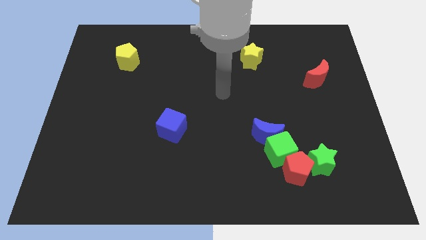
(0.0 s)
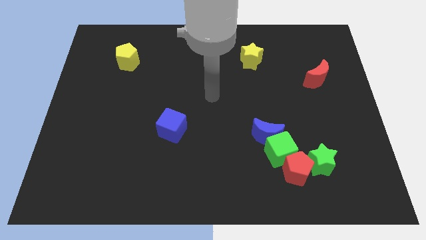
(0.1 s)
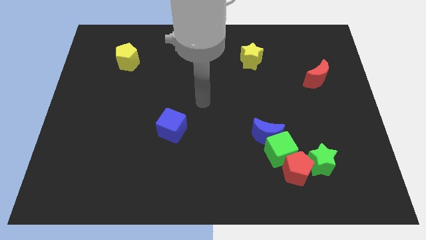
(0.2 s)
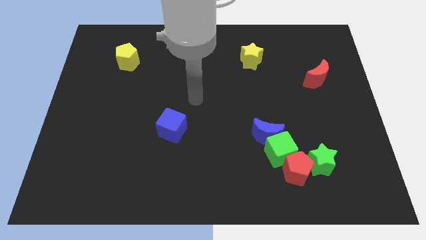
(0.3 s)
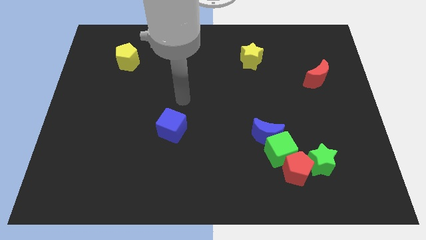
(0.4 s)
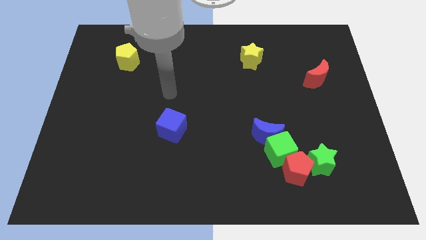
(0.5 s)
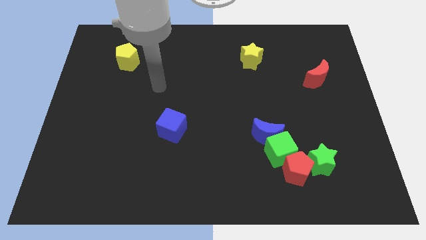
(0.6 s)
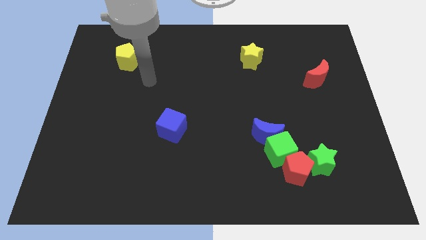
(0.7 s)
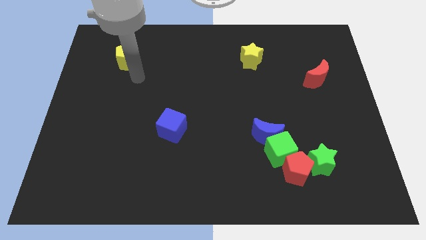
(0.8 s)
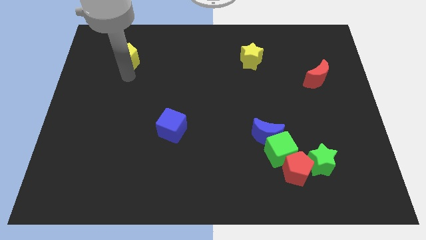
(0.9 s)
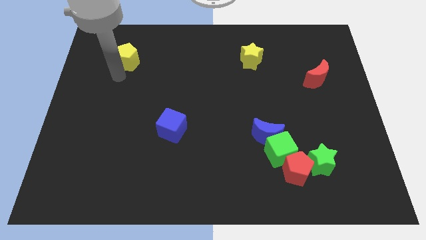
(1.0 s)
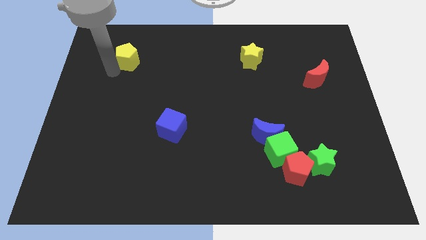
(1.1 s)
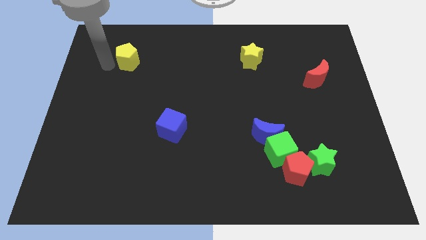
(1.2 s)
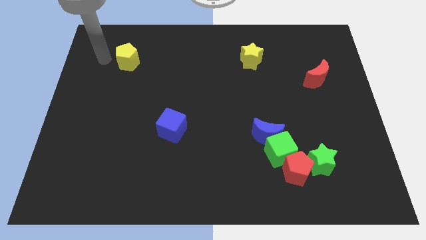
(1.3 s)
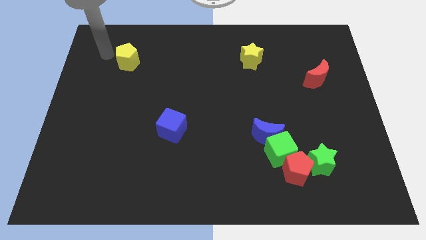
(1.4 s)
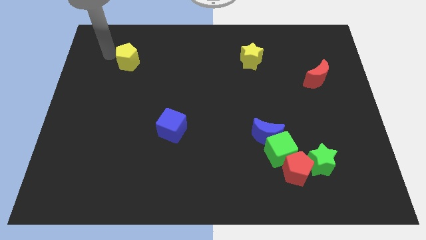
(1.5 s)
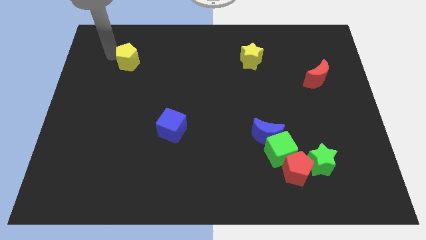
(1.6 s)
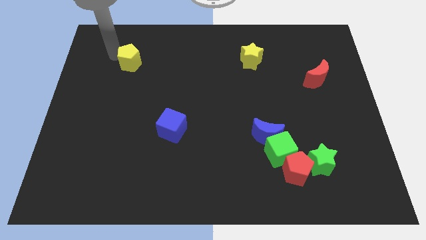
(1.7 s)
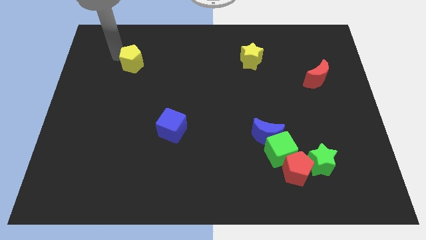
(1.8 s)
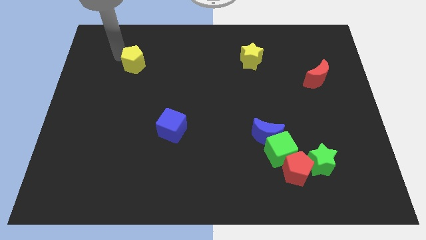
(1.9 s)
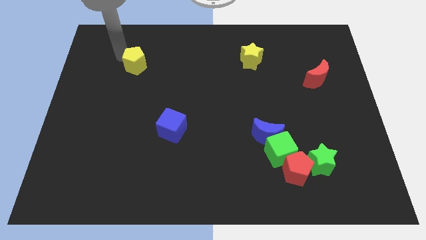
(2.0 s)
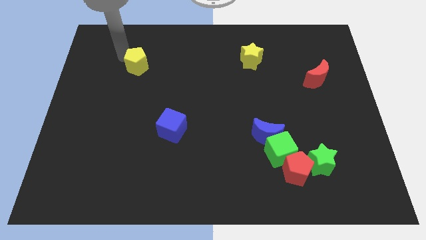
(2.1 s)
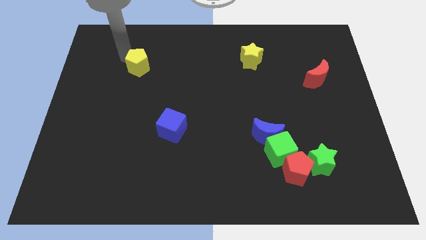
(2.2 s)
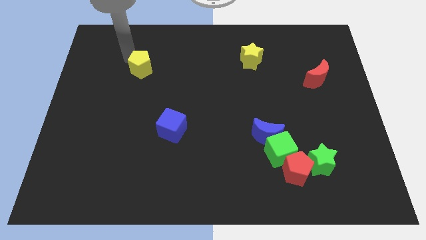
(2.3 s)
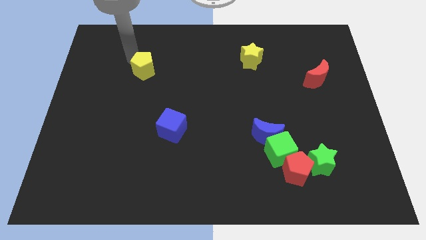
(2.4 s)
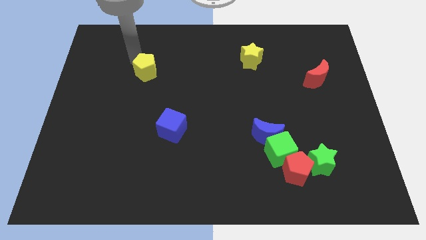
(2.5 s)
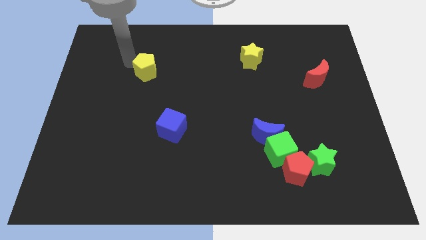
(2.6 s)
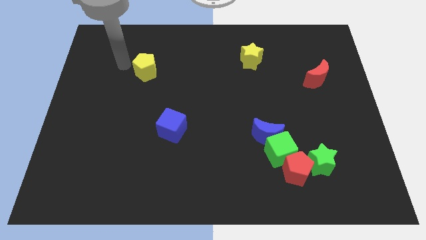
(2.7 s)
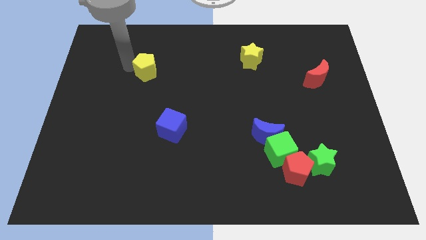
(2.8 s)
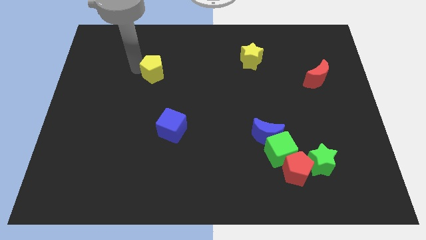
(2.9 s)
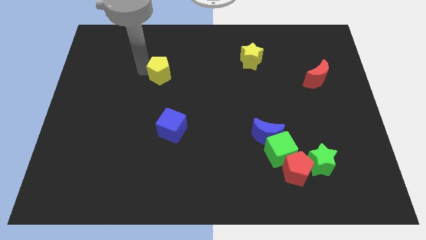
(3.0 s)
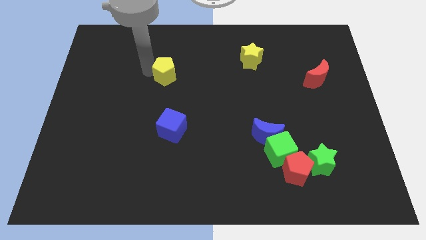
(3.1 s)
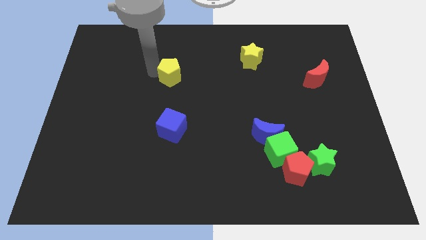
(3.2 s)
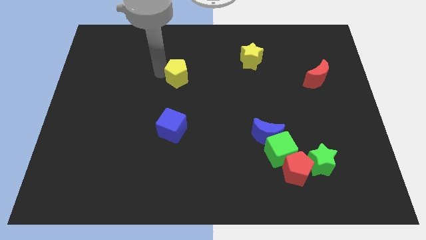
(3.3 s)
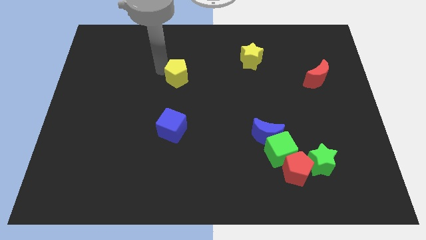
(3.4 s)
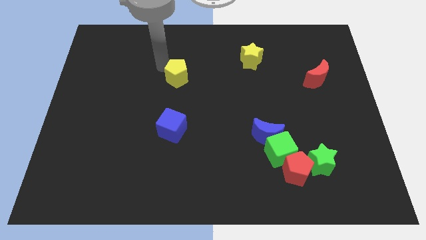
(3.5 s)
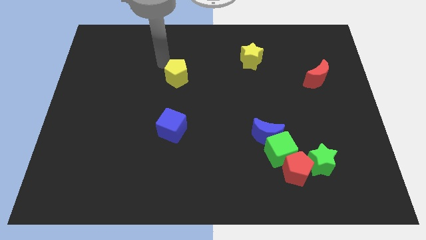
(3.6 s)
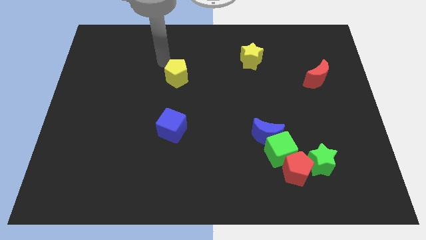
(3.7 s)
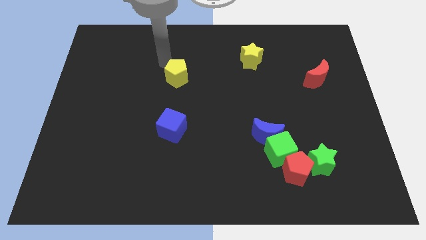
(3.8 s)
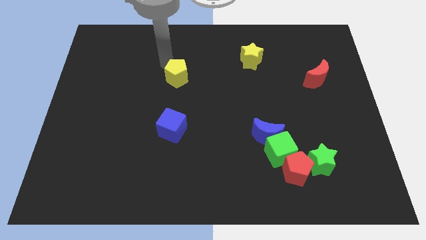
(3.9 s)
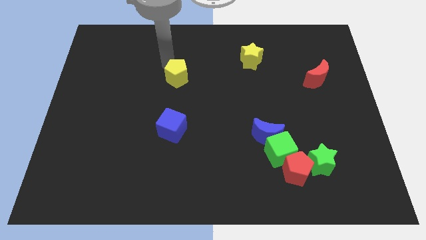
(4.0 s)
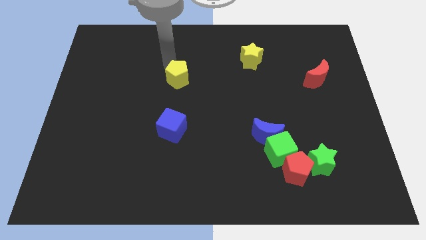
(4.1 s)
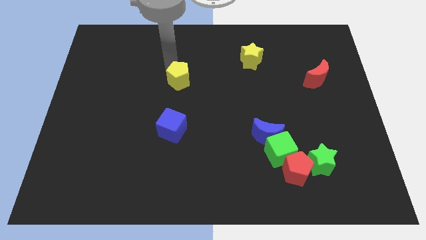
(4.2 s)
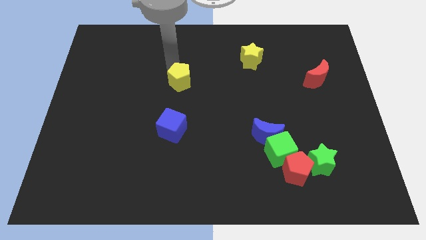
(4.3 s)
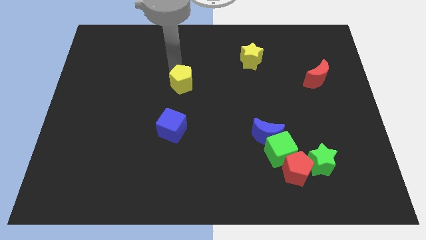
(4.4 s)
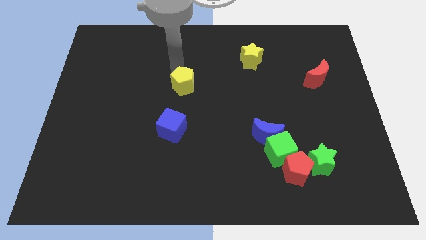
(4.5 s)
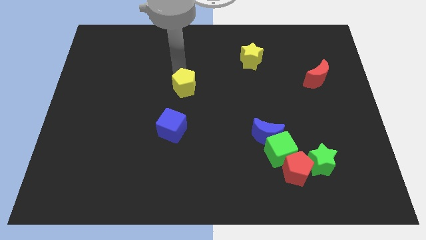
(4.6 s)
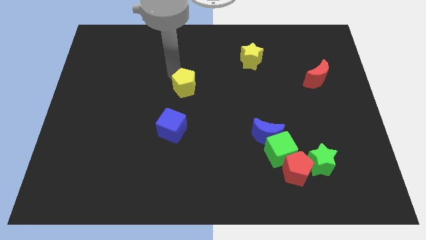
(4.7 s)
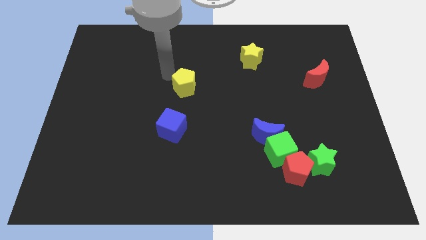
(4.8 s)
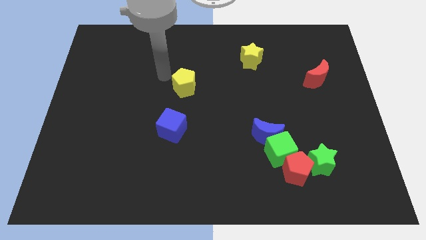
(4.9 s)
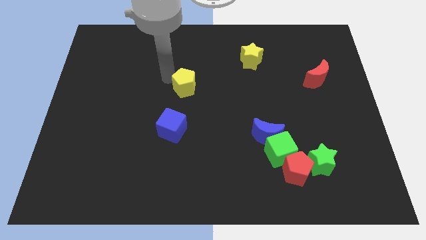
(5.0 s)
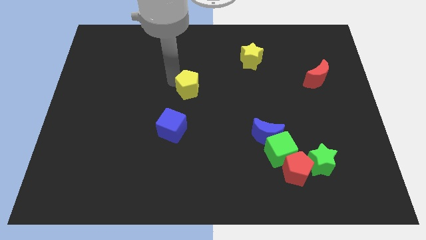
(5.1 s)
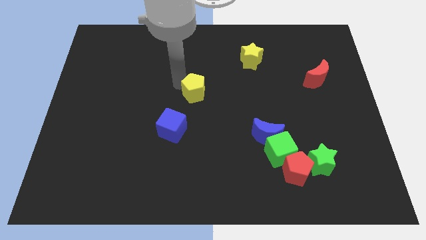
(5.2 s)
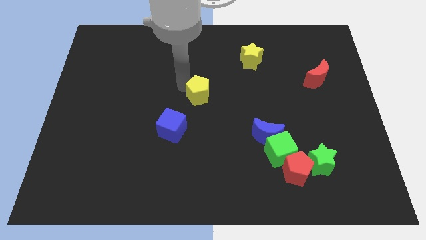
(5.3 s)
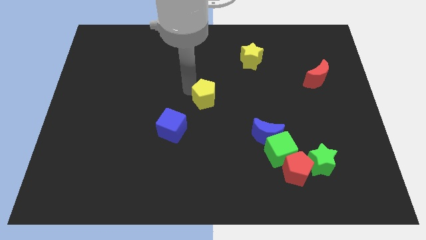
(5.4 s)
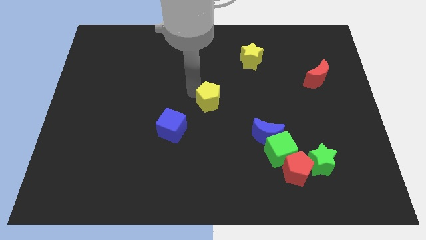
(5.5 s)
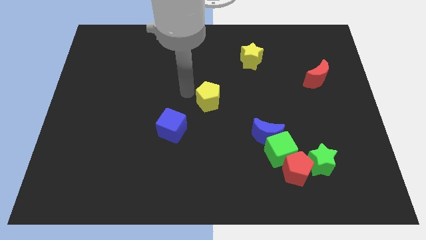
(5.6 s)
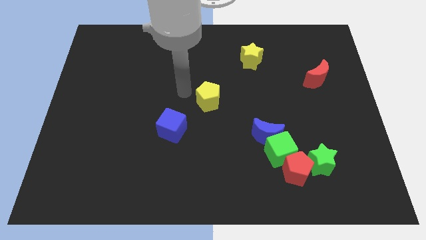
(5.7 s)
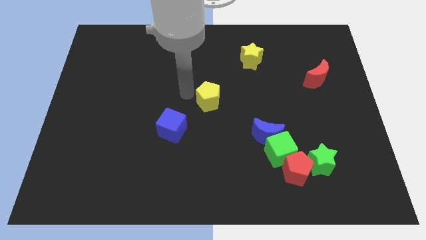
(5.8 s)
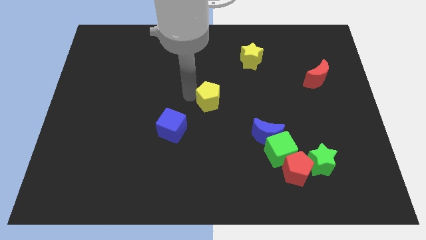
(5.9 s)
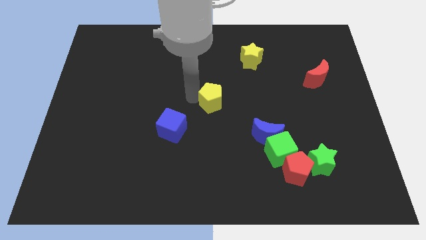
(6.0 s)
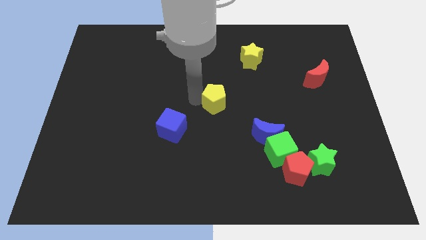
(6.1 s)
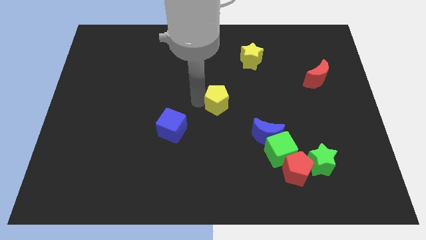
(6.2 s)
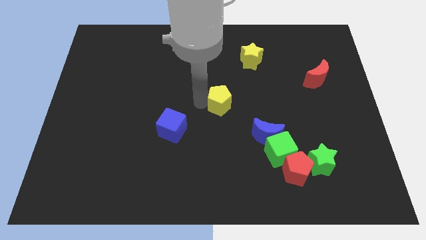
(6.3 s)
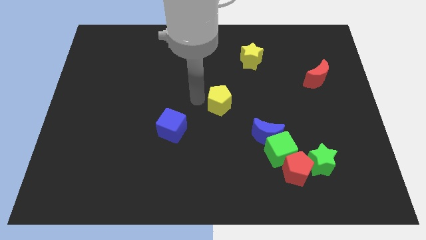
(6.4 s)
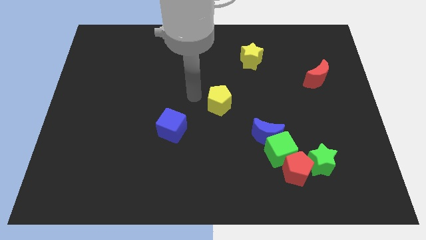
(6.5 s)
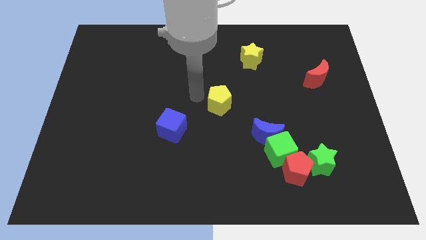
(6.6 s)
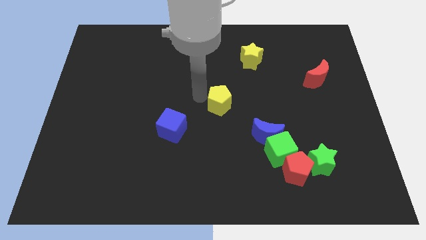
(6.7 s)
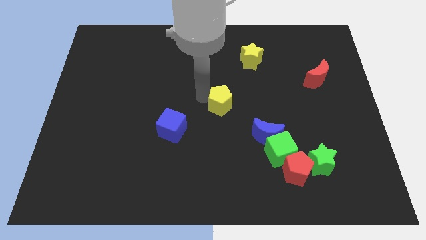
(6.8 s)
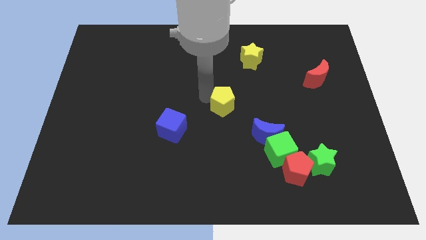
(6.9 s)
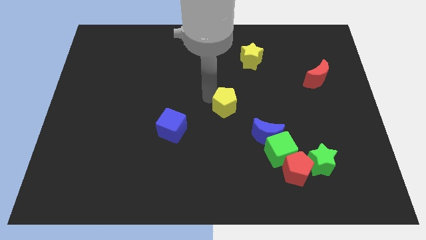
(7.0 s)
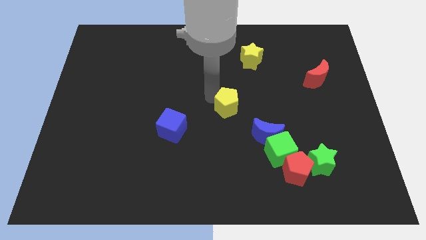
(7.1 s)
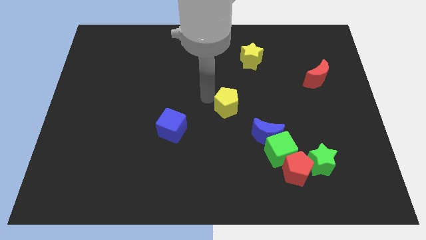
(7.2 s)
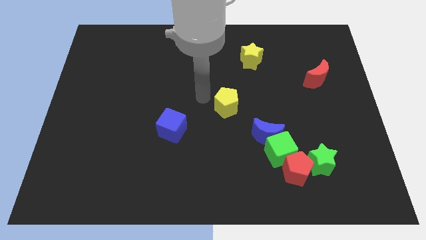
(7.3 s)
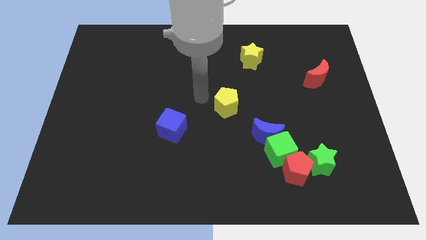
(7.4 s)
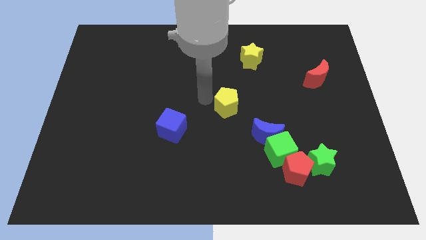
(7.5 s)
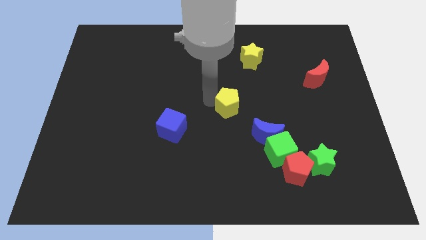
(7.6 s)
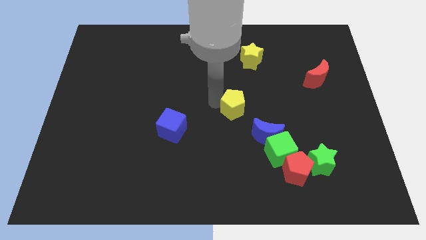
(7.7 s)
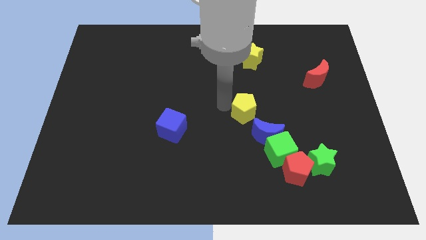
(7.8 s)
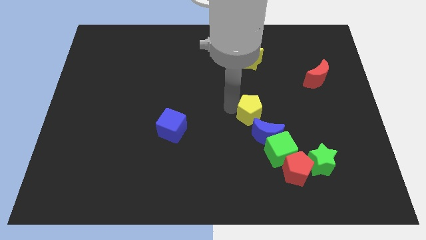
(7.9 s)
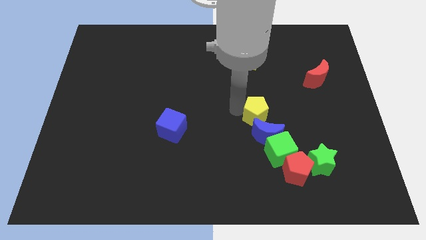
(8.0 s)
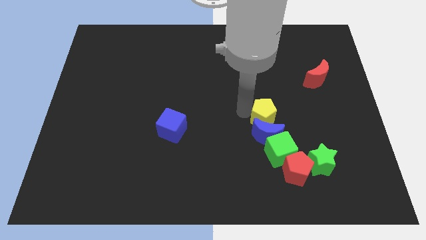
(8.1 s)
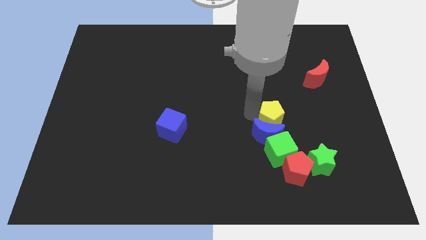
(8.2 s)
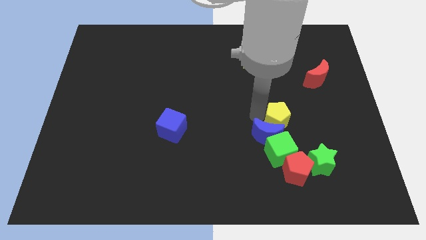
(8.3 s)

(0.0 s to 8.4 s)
move the yellow pentagon just right of the blue moon
